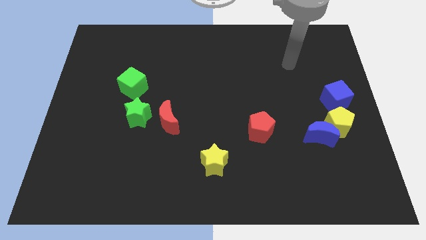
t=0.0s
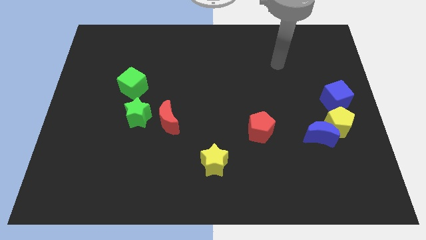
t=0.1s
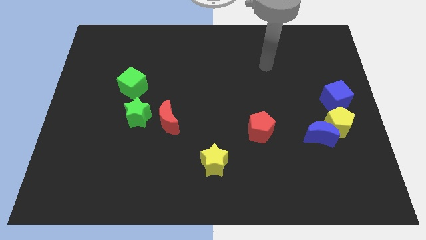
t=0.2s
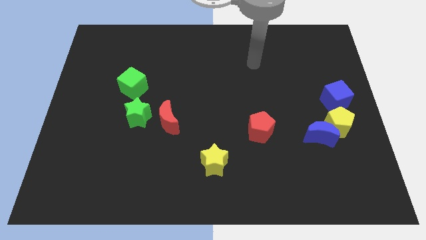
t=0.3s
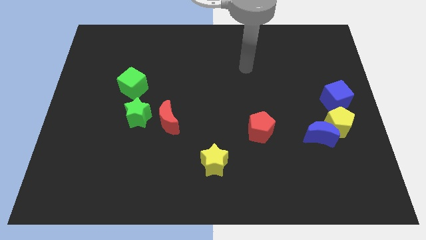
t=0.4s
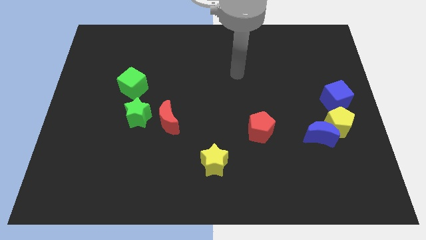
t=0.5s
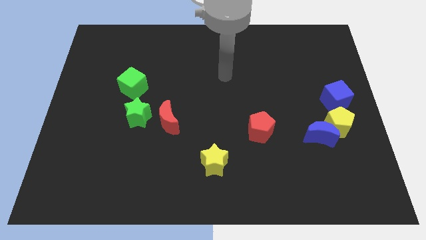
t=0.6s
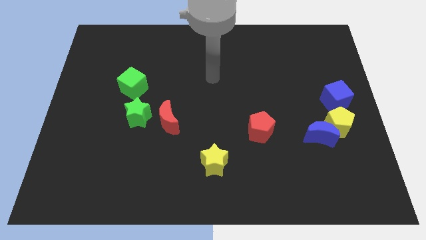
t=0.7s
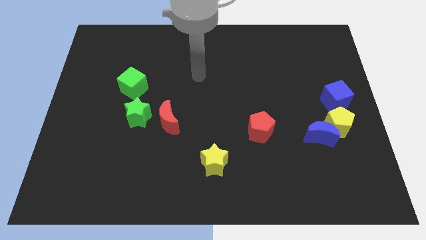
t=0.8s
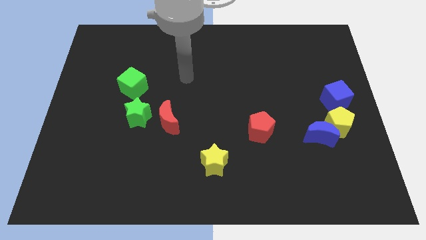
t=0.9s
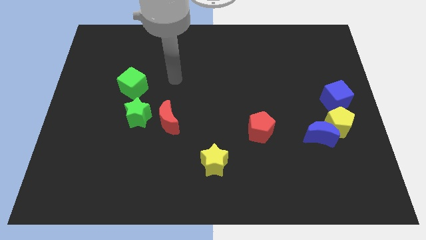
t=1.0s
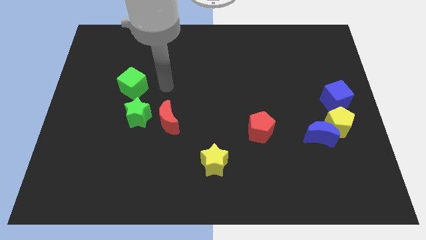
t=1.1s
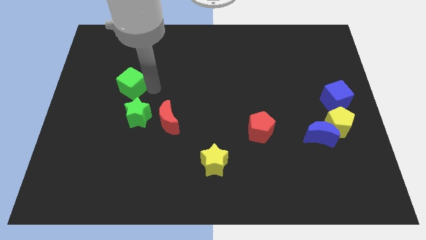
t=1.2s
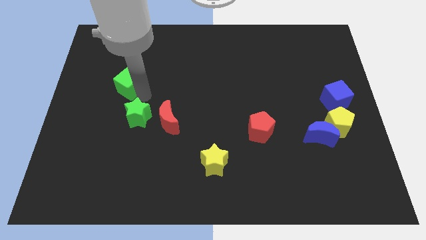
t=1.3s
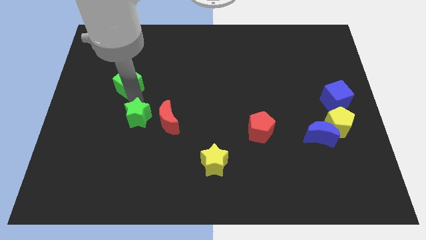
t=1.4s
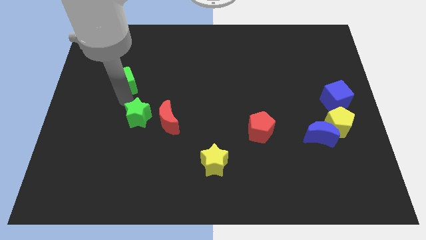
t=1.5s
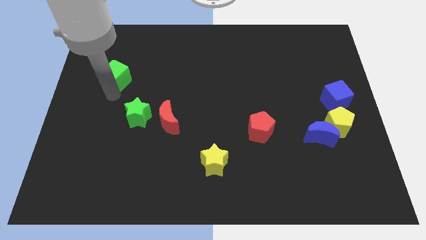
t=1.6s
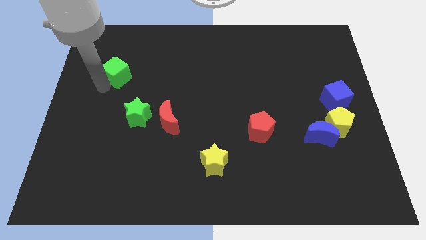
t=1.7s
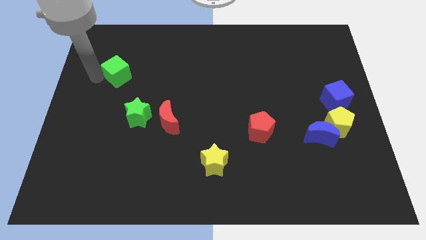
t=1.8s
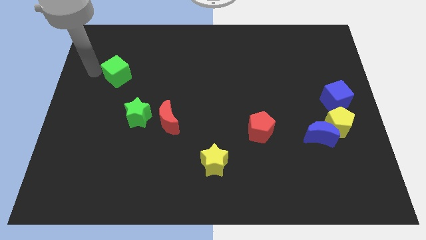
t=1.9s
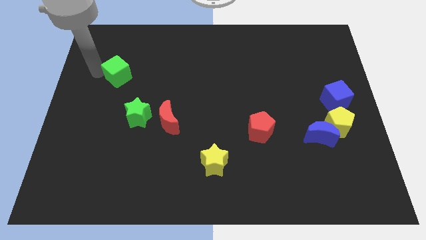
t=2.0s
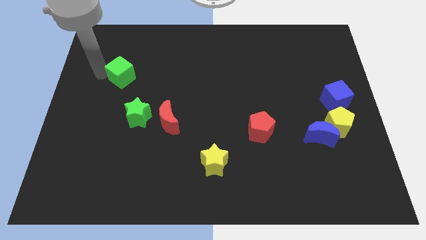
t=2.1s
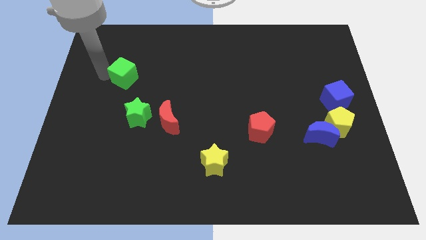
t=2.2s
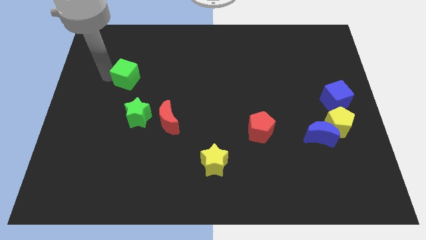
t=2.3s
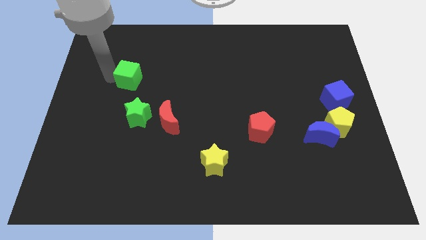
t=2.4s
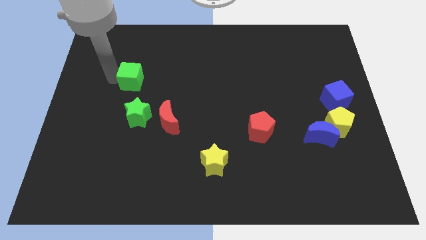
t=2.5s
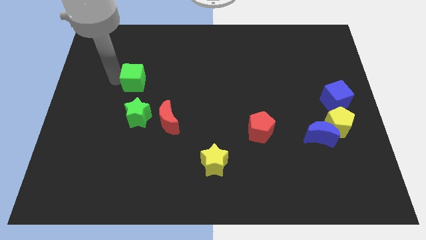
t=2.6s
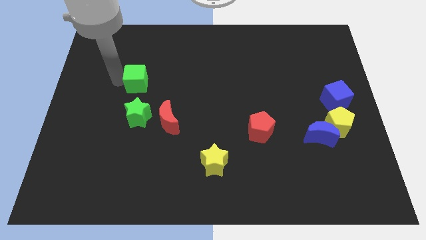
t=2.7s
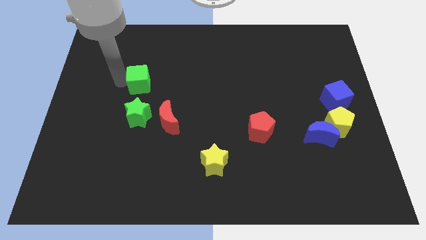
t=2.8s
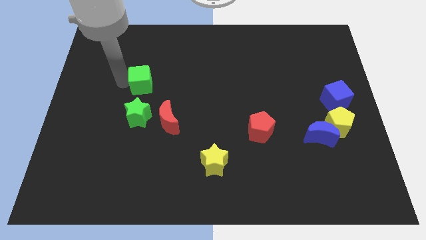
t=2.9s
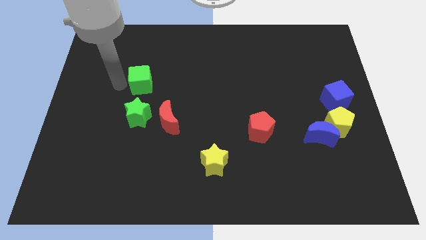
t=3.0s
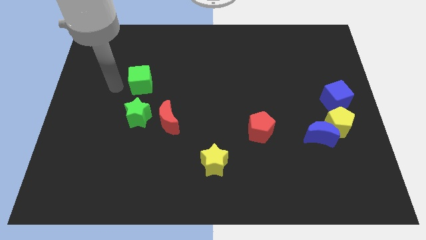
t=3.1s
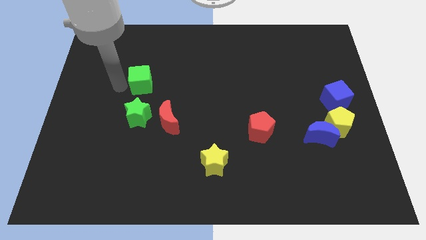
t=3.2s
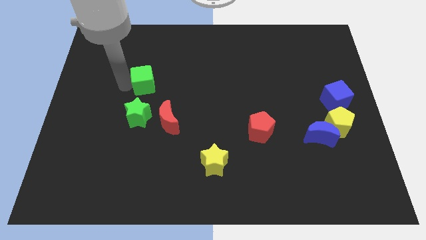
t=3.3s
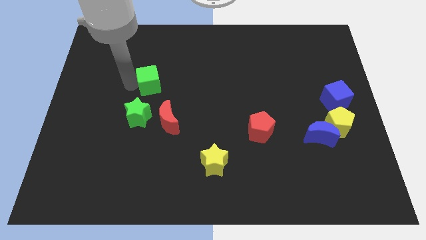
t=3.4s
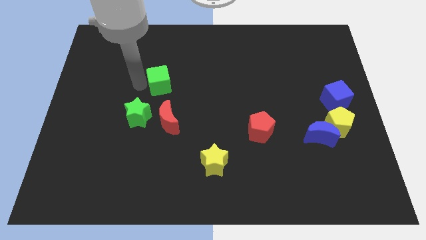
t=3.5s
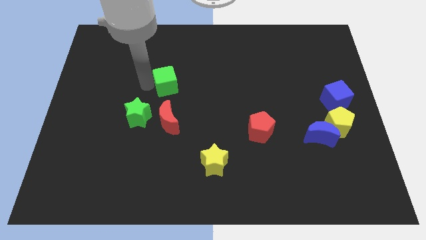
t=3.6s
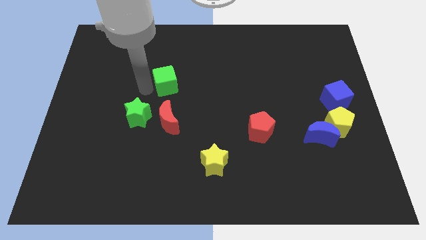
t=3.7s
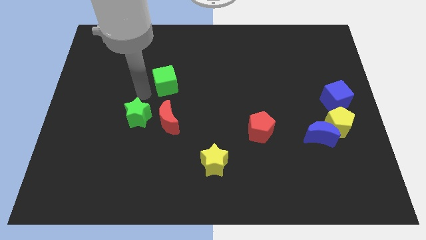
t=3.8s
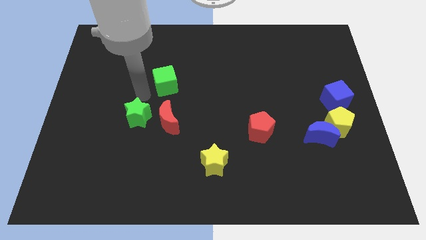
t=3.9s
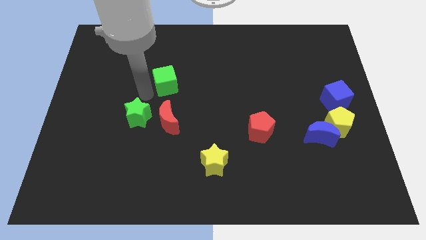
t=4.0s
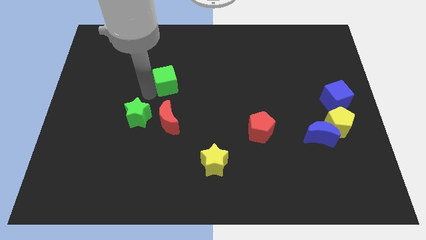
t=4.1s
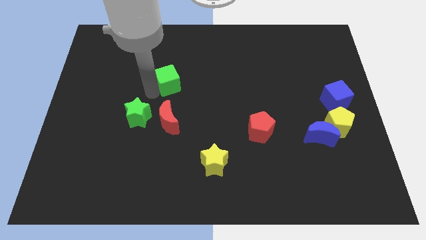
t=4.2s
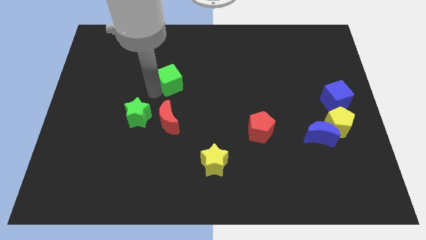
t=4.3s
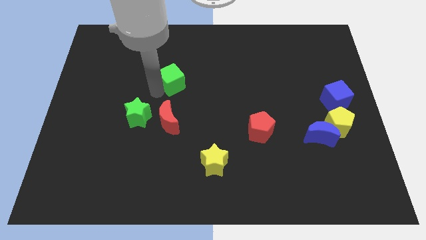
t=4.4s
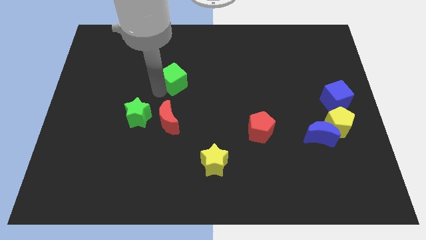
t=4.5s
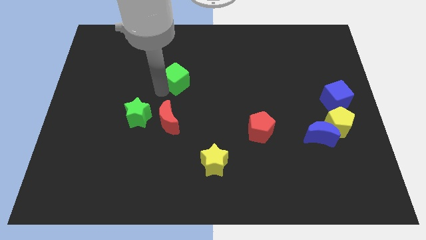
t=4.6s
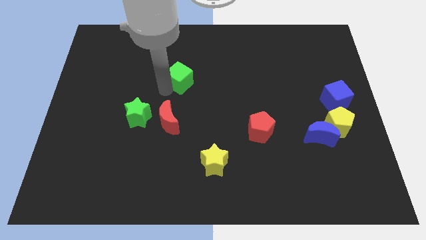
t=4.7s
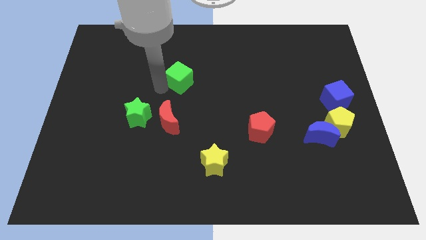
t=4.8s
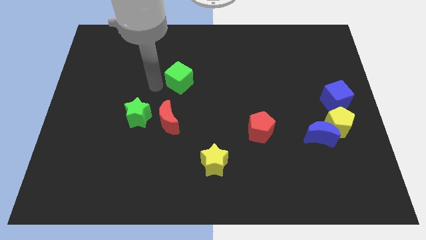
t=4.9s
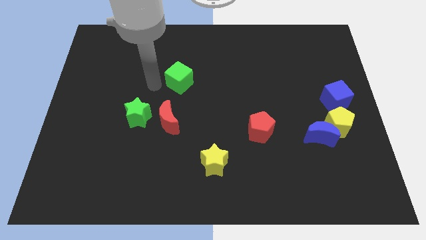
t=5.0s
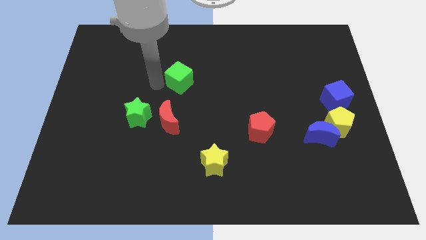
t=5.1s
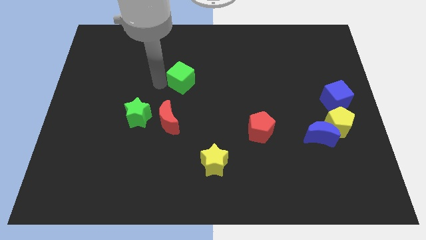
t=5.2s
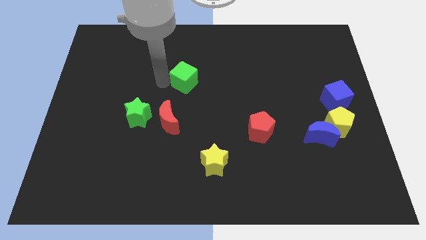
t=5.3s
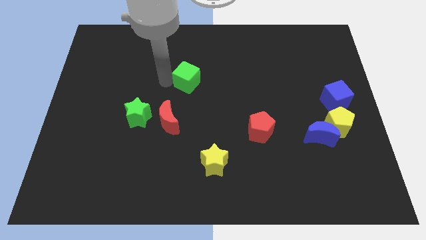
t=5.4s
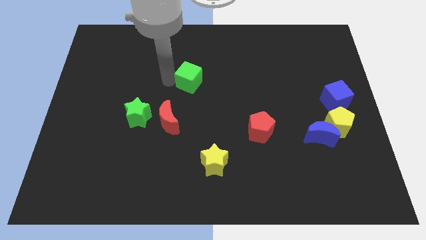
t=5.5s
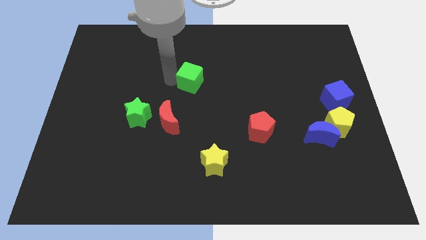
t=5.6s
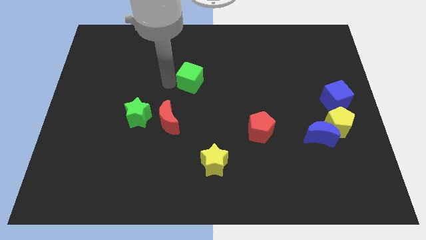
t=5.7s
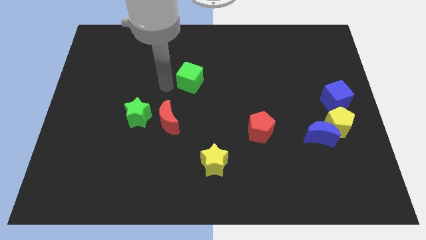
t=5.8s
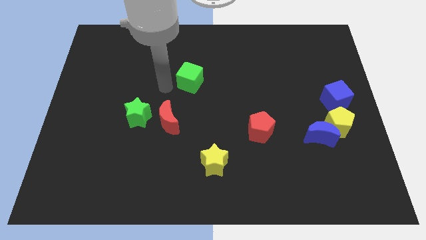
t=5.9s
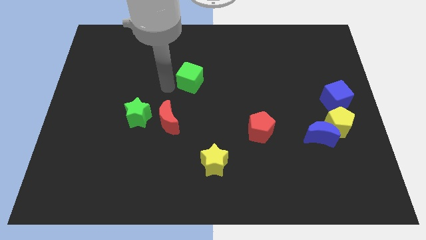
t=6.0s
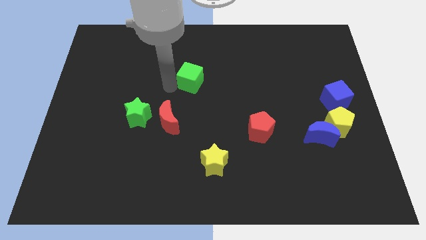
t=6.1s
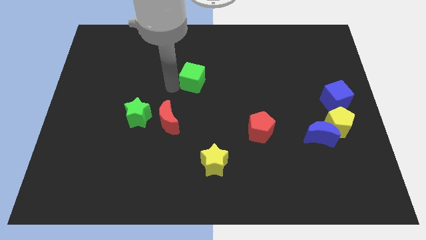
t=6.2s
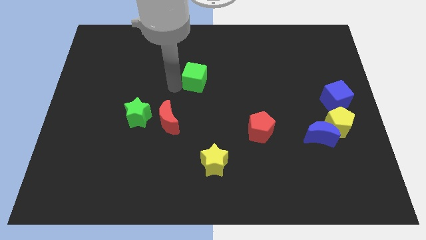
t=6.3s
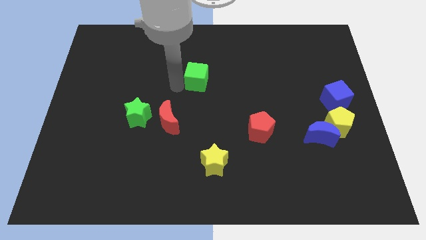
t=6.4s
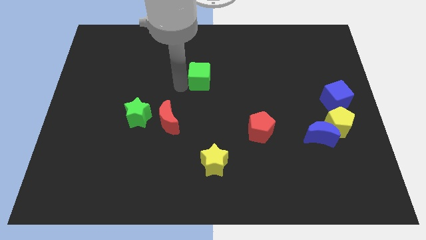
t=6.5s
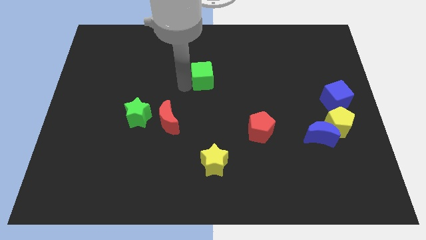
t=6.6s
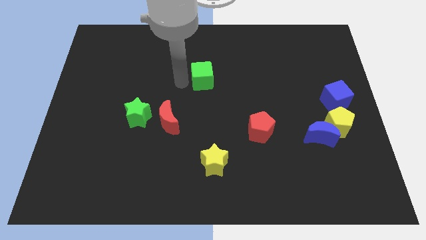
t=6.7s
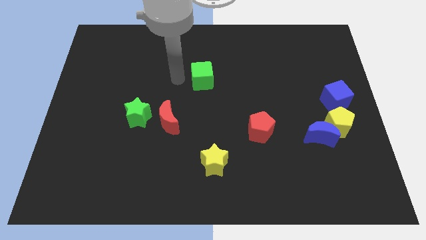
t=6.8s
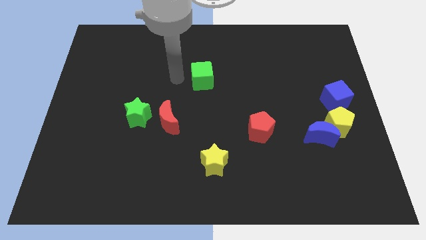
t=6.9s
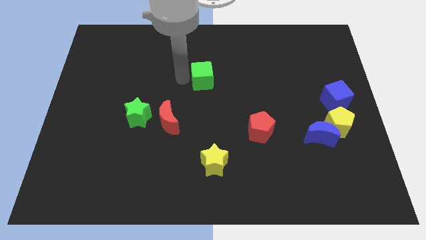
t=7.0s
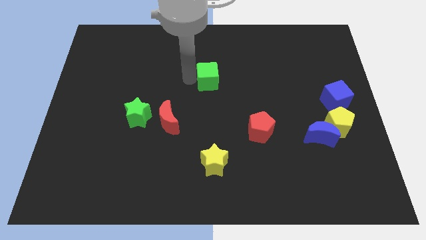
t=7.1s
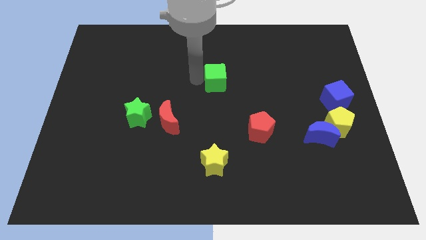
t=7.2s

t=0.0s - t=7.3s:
push the green cube right
